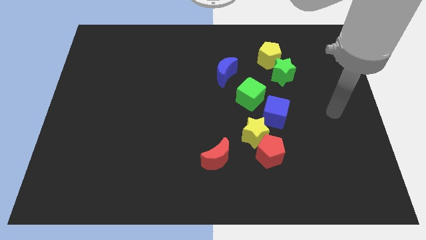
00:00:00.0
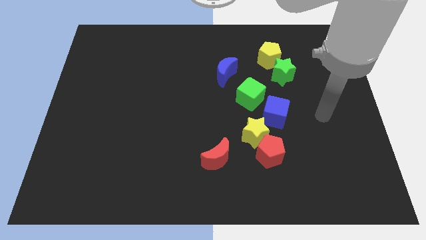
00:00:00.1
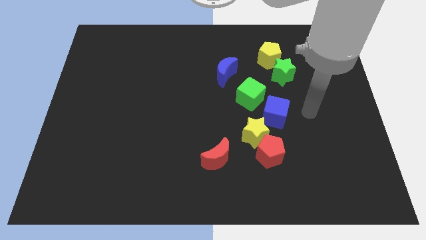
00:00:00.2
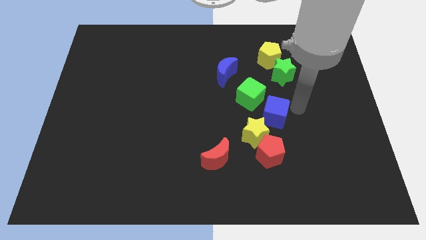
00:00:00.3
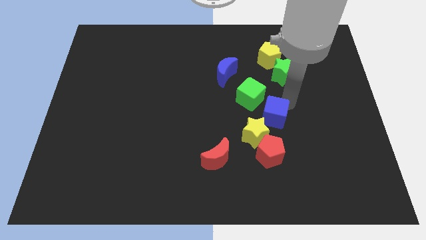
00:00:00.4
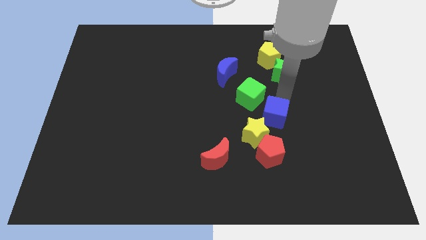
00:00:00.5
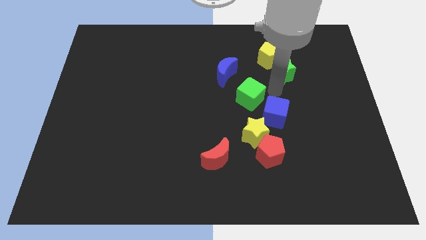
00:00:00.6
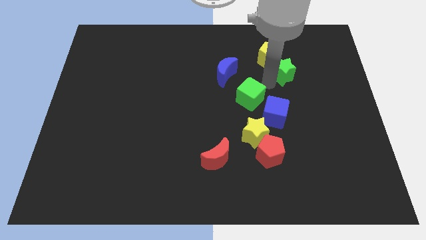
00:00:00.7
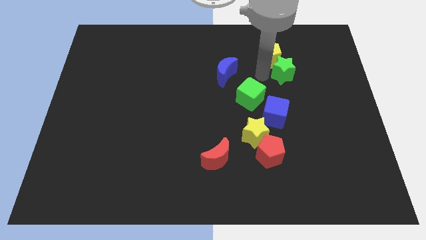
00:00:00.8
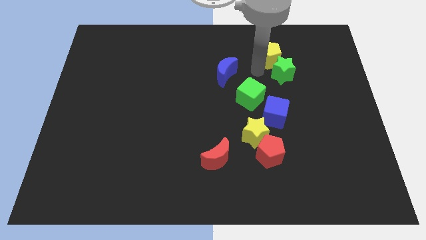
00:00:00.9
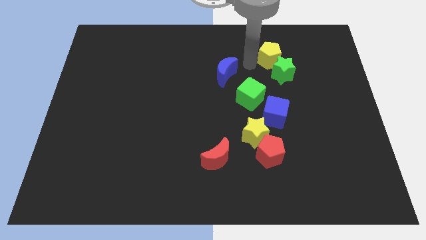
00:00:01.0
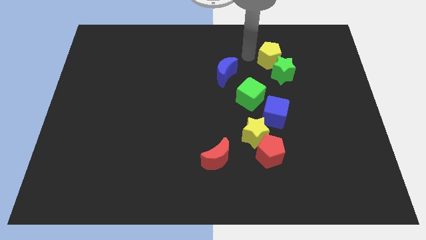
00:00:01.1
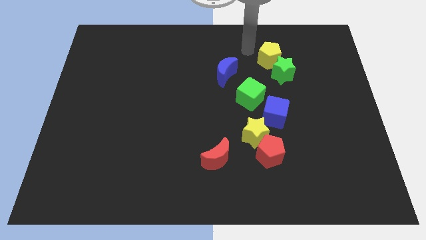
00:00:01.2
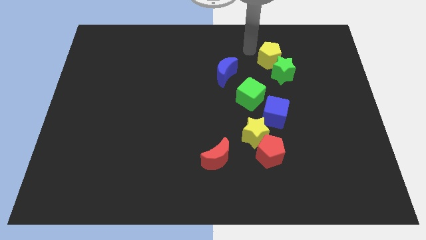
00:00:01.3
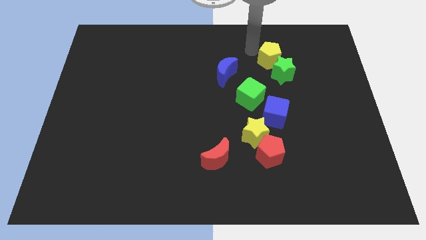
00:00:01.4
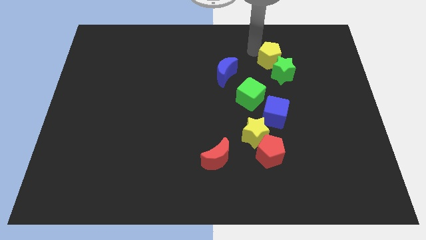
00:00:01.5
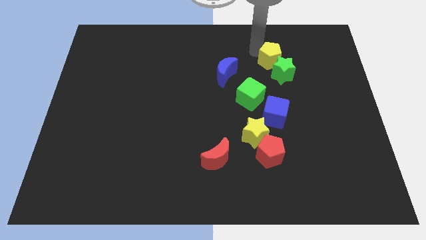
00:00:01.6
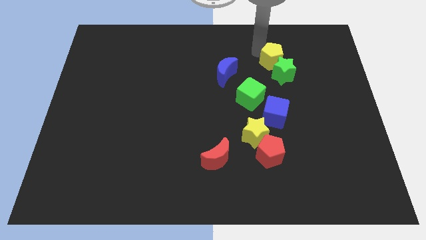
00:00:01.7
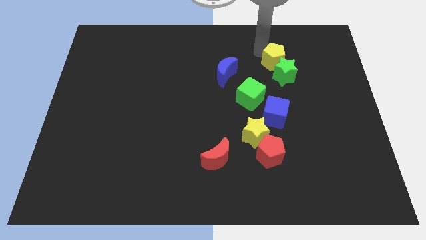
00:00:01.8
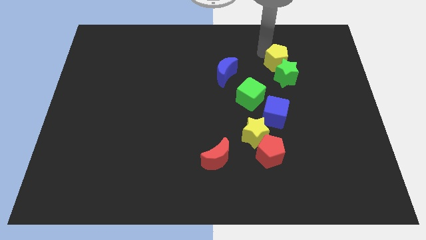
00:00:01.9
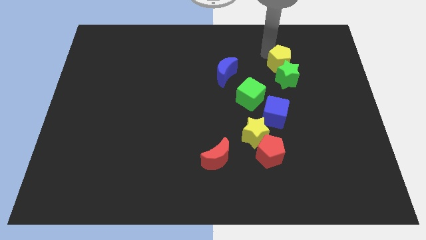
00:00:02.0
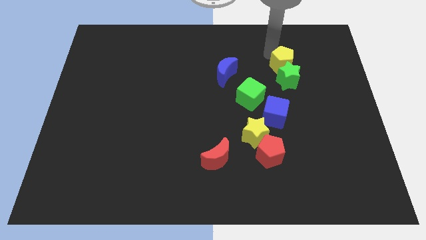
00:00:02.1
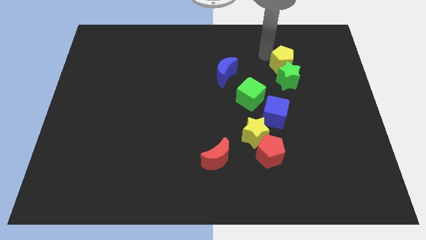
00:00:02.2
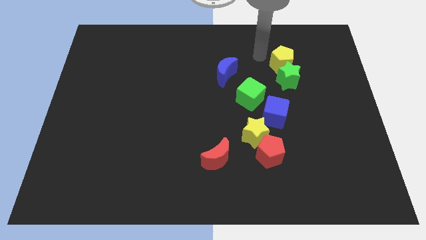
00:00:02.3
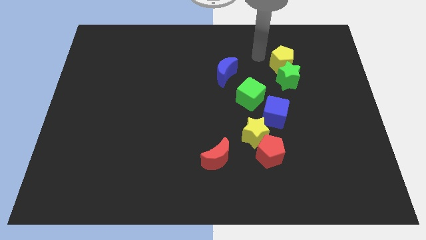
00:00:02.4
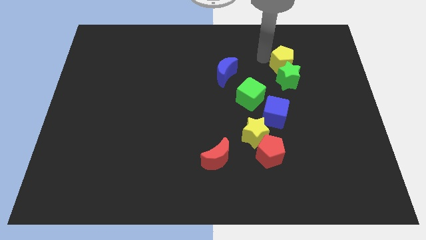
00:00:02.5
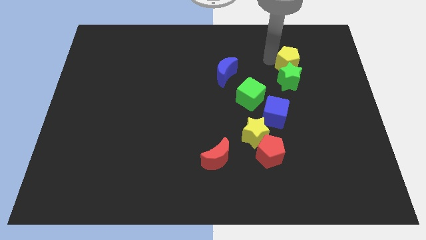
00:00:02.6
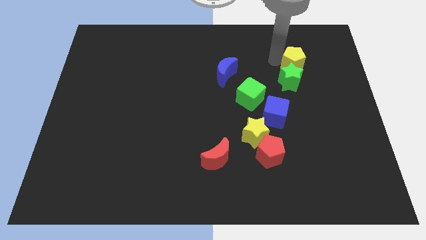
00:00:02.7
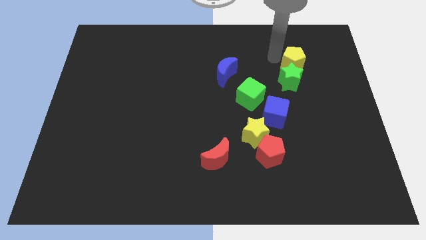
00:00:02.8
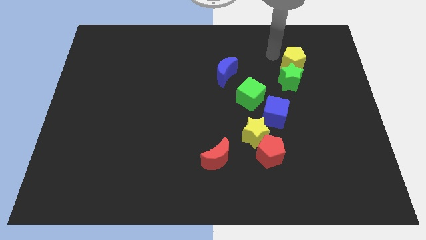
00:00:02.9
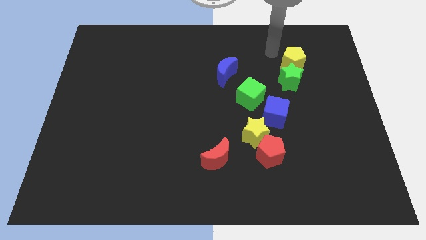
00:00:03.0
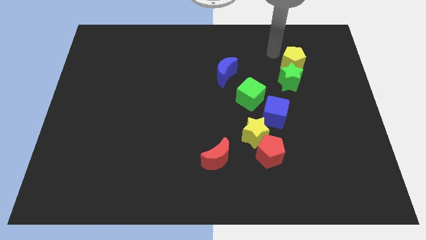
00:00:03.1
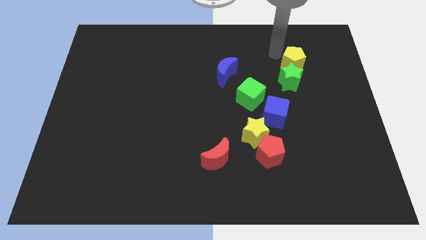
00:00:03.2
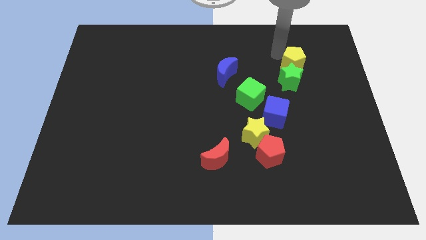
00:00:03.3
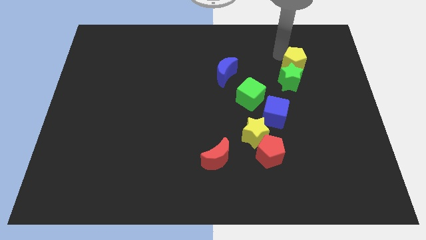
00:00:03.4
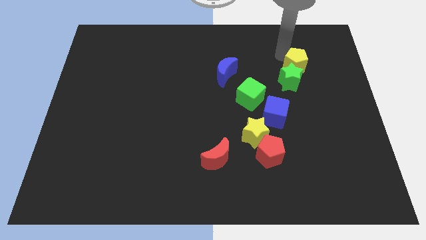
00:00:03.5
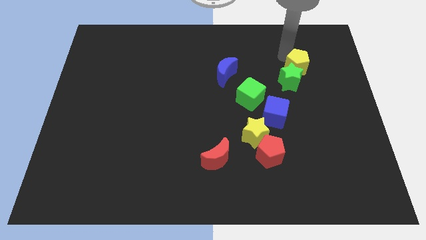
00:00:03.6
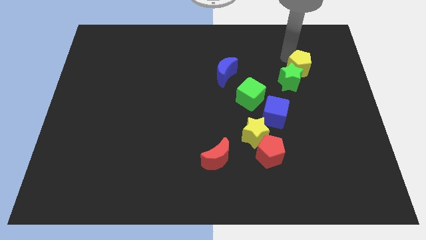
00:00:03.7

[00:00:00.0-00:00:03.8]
move the yellow pentagon somewhat downwards and to the right diagonally

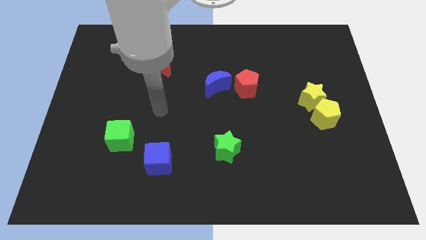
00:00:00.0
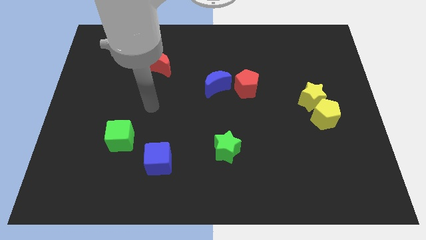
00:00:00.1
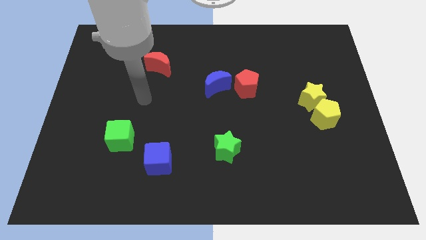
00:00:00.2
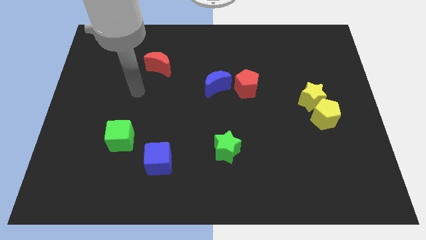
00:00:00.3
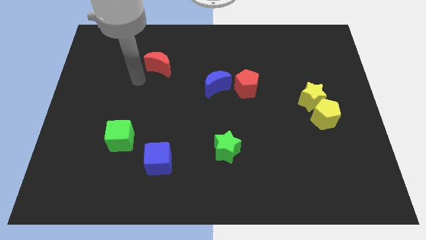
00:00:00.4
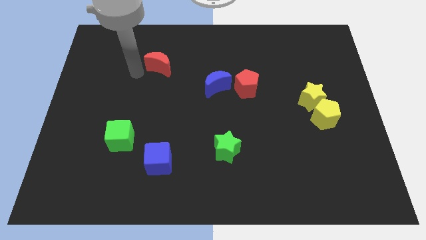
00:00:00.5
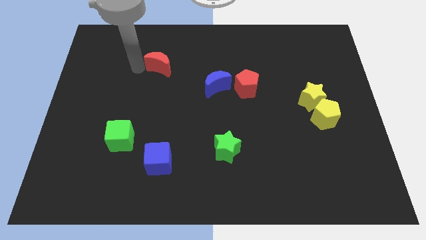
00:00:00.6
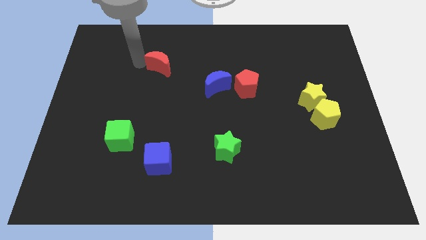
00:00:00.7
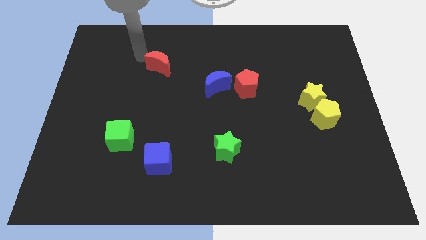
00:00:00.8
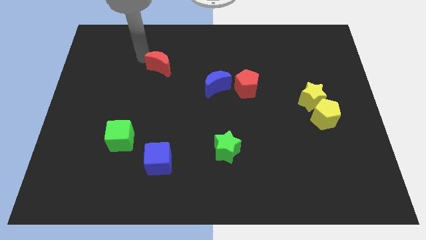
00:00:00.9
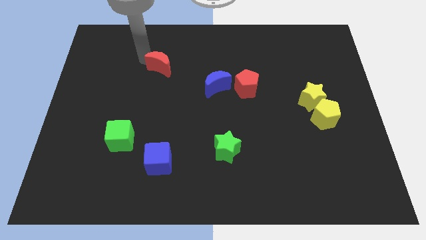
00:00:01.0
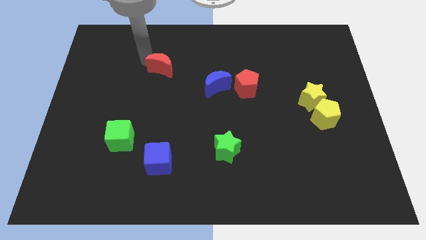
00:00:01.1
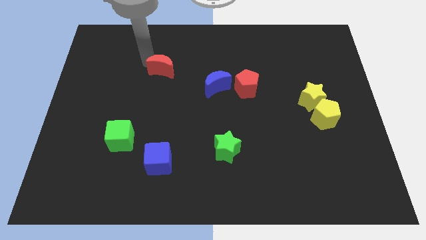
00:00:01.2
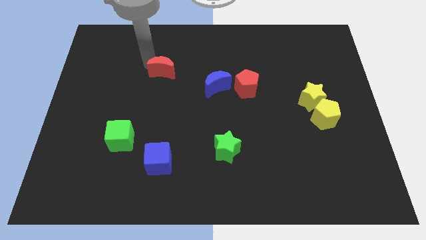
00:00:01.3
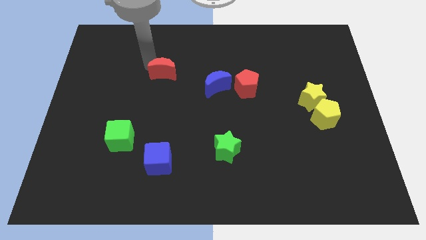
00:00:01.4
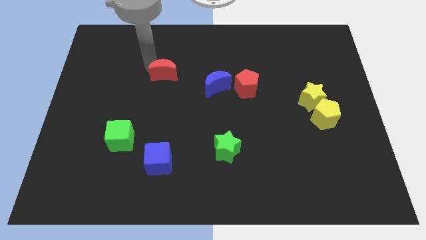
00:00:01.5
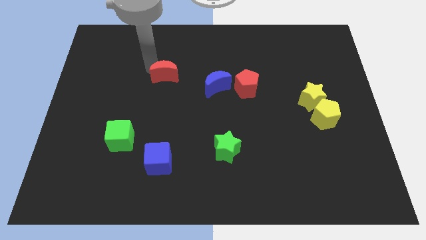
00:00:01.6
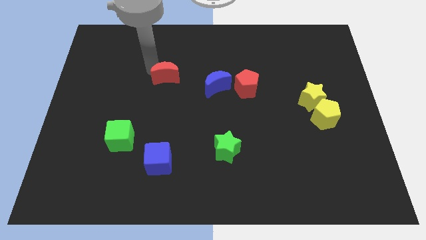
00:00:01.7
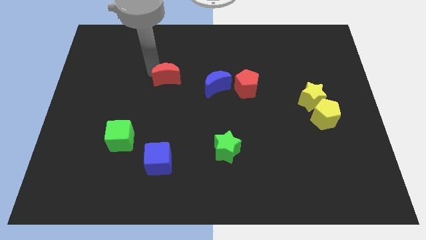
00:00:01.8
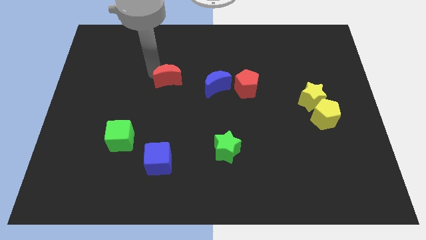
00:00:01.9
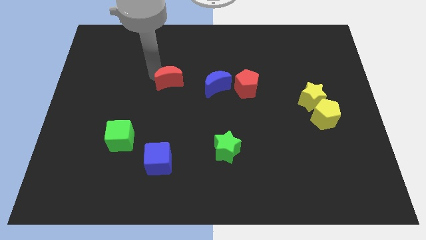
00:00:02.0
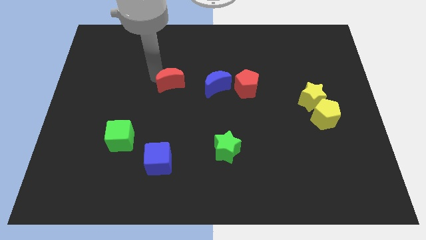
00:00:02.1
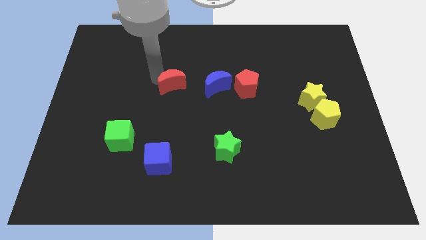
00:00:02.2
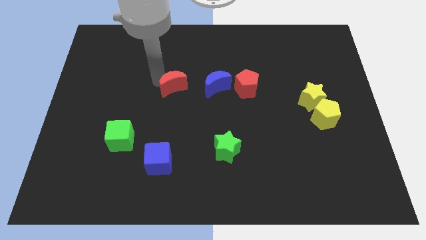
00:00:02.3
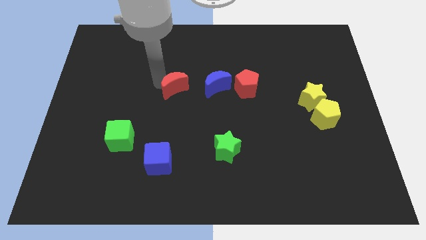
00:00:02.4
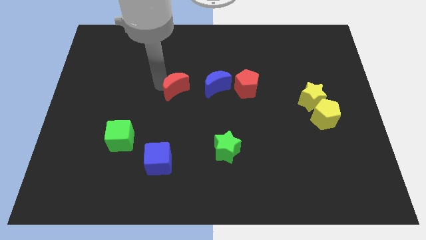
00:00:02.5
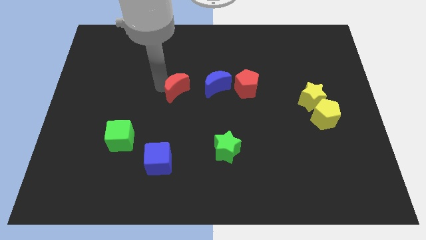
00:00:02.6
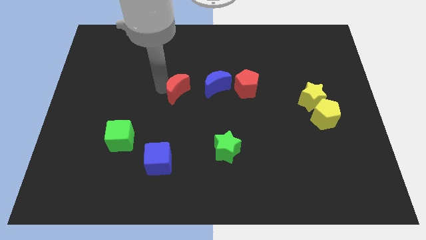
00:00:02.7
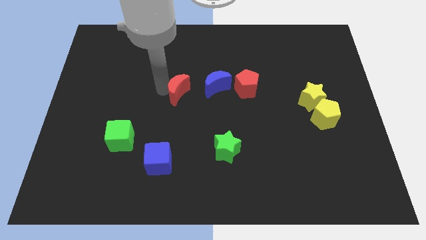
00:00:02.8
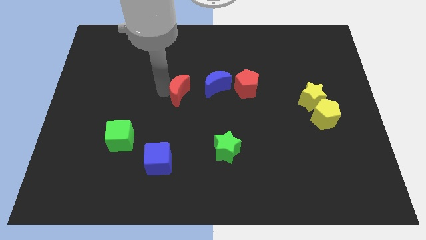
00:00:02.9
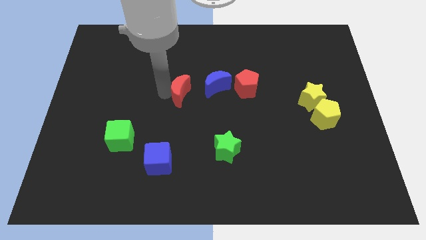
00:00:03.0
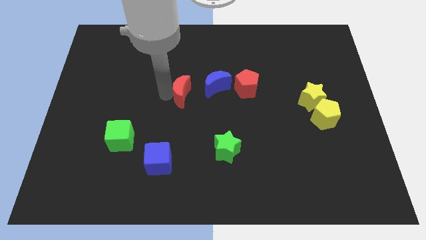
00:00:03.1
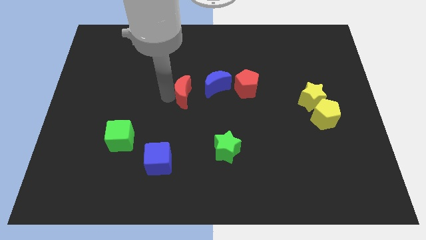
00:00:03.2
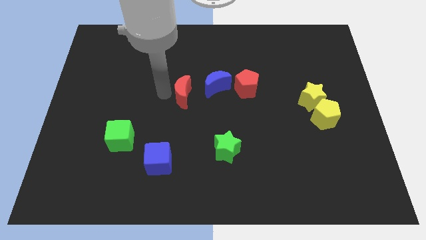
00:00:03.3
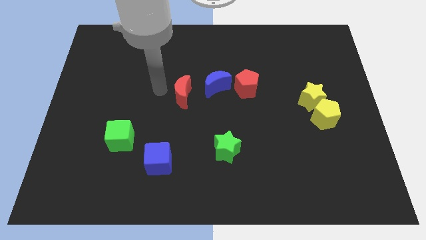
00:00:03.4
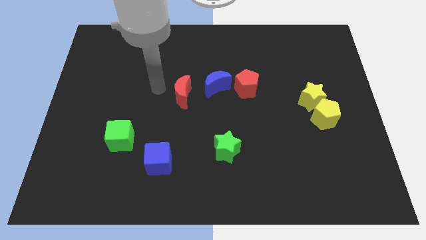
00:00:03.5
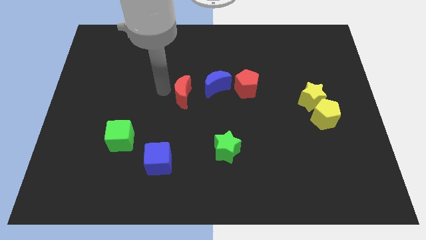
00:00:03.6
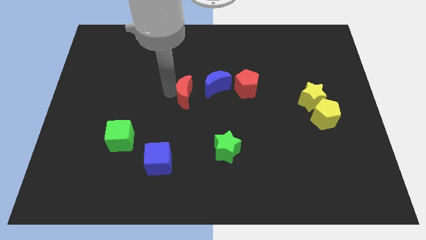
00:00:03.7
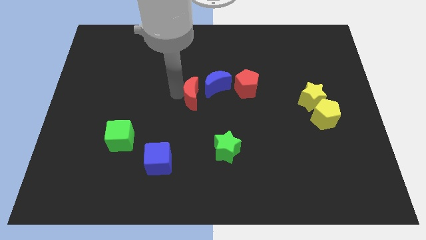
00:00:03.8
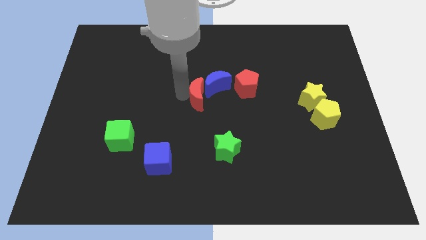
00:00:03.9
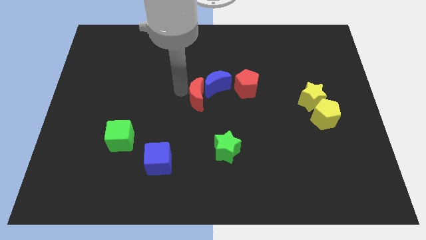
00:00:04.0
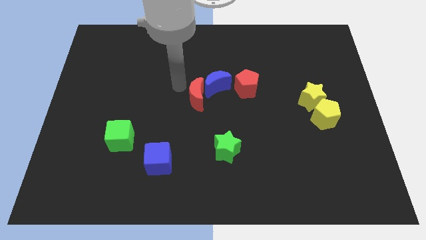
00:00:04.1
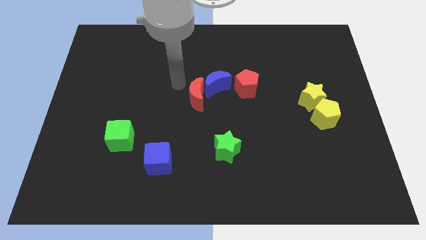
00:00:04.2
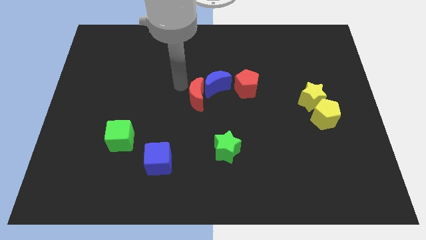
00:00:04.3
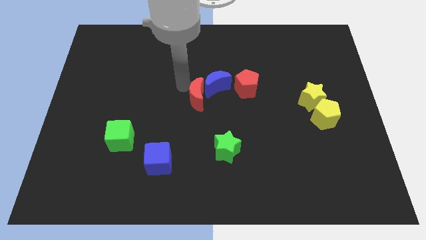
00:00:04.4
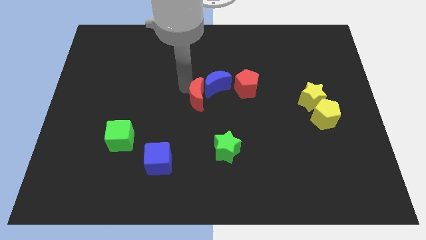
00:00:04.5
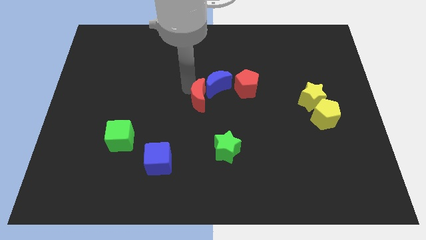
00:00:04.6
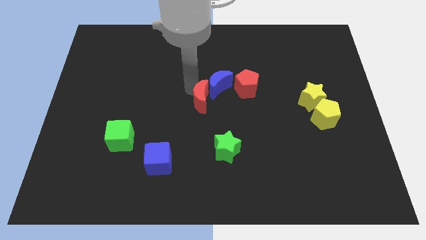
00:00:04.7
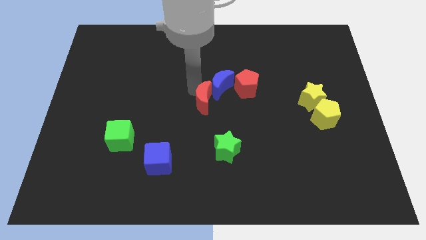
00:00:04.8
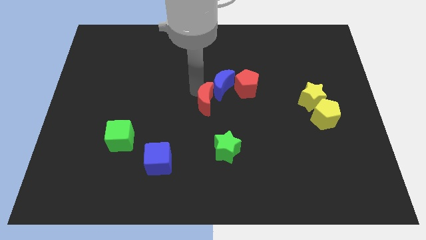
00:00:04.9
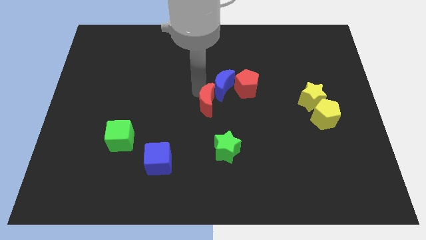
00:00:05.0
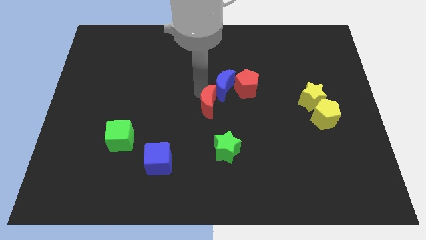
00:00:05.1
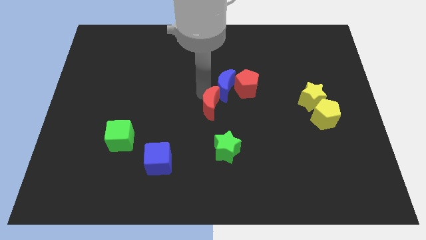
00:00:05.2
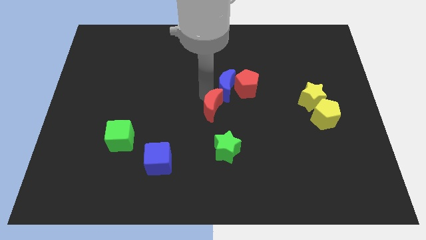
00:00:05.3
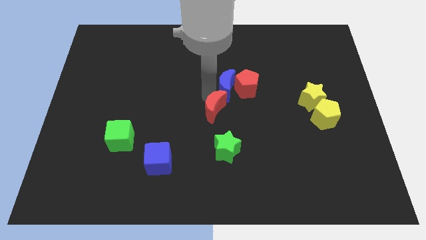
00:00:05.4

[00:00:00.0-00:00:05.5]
move the red moon diagonally downwards and to the right
